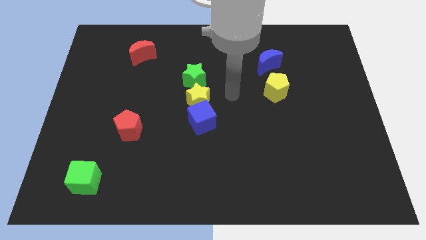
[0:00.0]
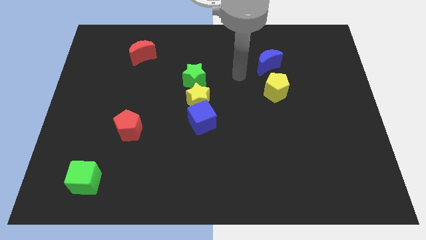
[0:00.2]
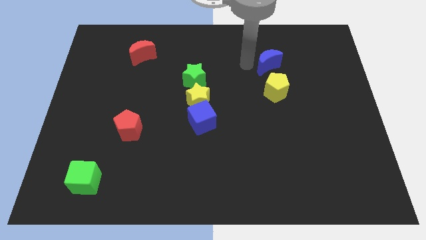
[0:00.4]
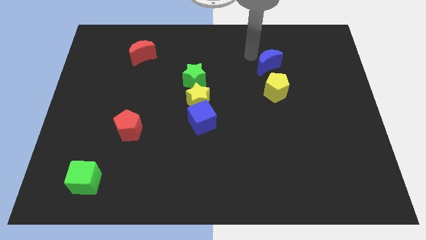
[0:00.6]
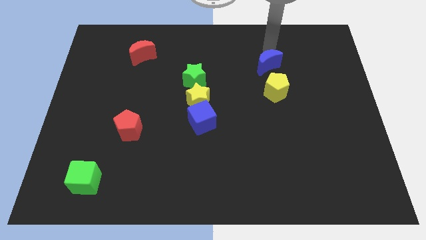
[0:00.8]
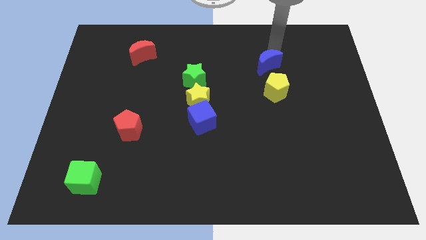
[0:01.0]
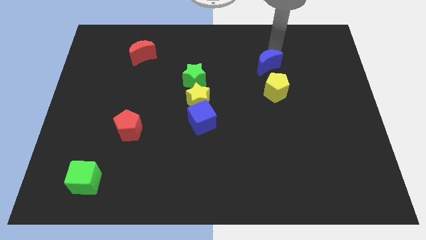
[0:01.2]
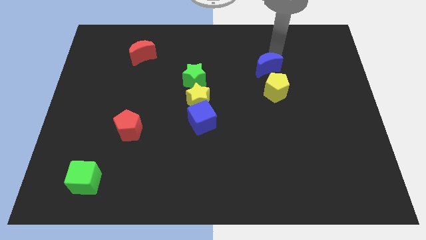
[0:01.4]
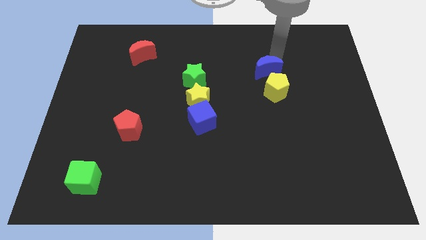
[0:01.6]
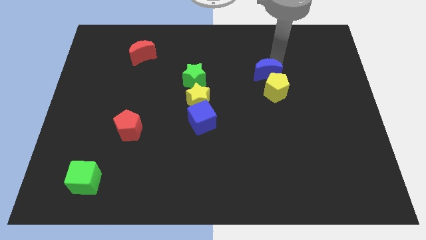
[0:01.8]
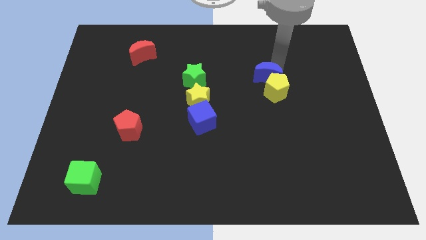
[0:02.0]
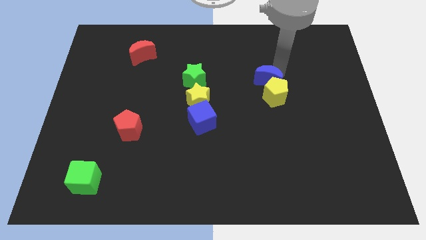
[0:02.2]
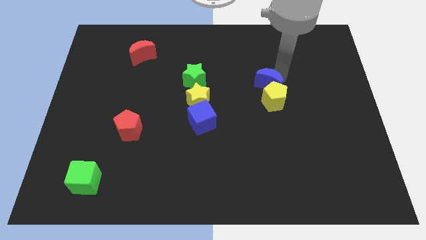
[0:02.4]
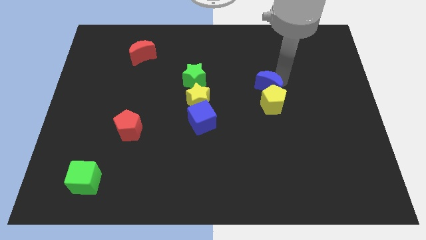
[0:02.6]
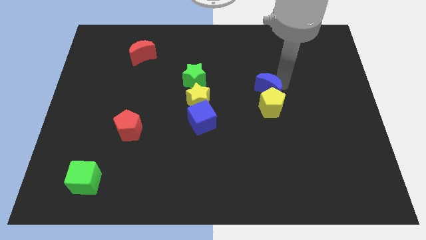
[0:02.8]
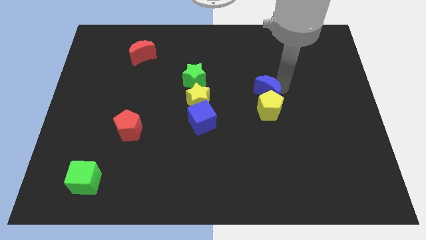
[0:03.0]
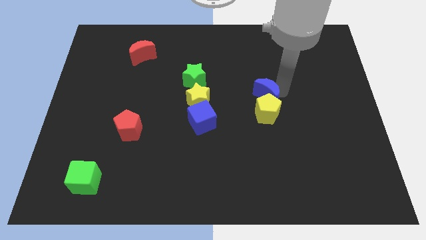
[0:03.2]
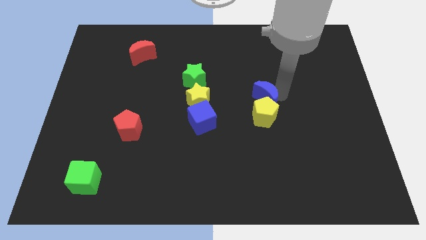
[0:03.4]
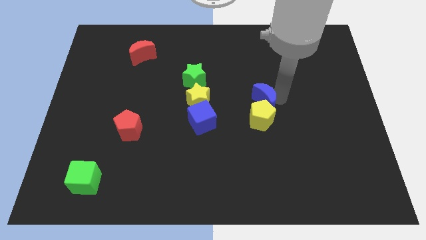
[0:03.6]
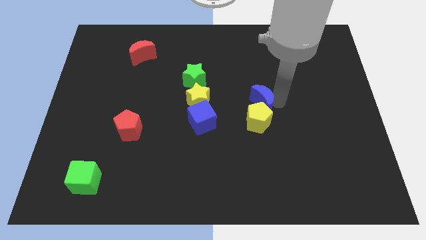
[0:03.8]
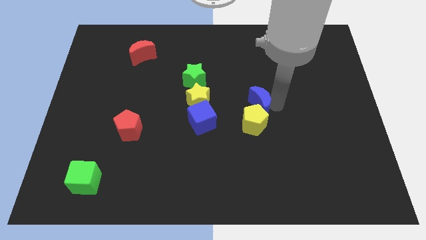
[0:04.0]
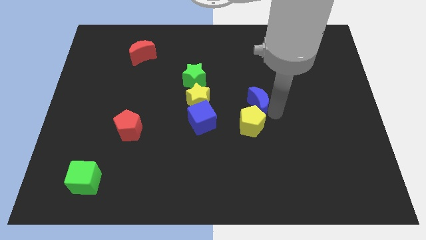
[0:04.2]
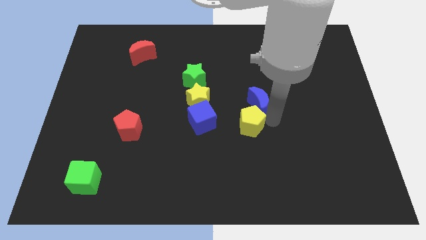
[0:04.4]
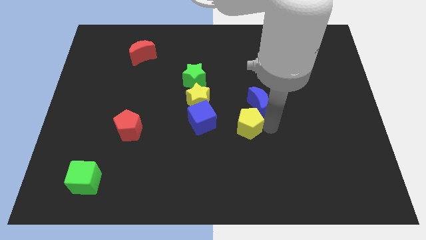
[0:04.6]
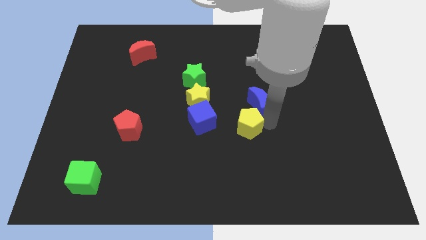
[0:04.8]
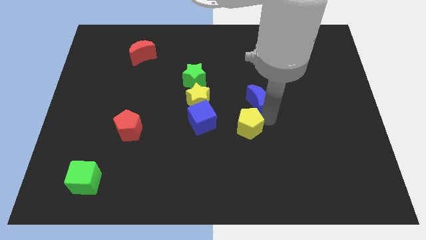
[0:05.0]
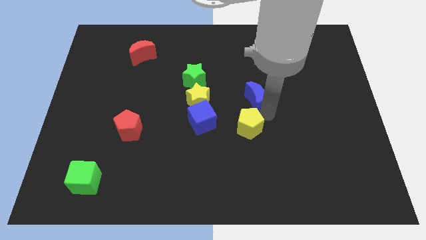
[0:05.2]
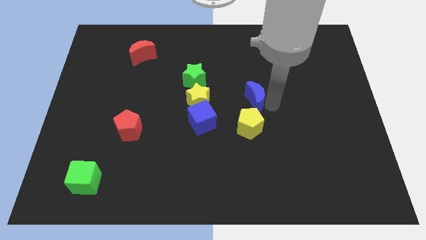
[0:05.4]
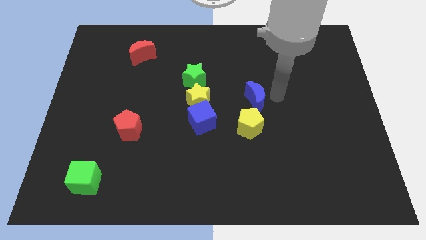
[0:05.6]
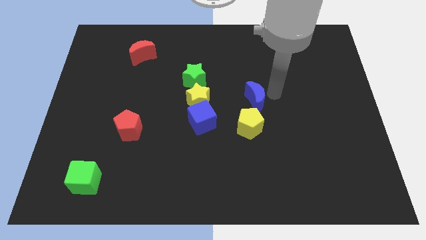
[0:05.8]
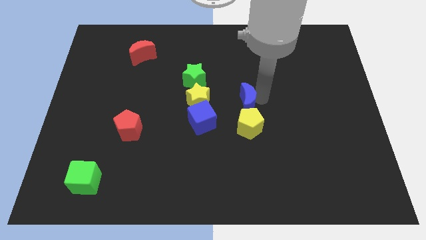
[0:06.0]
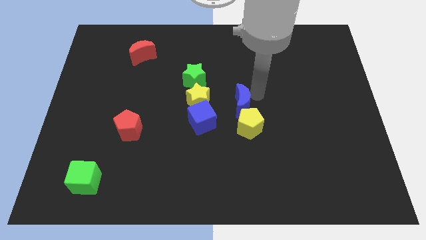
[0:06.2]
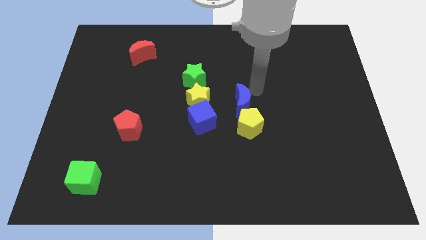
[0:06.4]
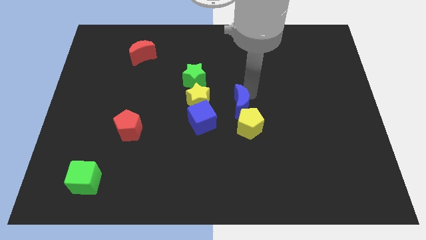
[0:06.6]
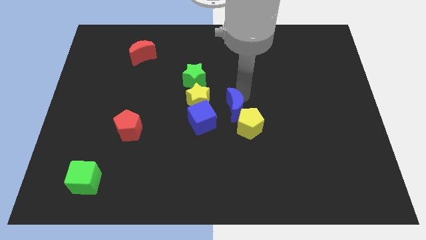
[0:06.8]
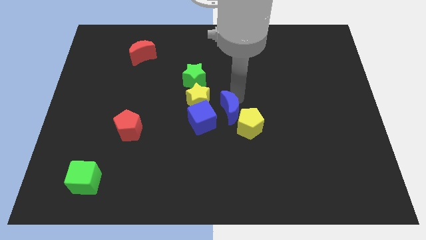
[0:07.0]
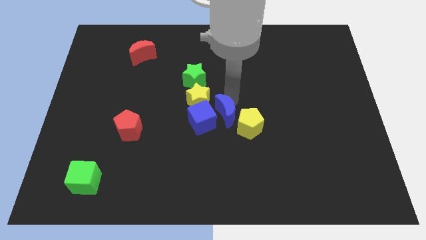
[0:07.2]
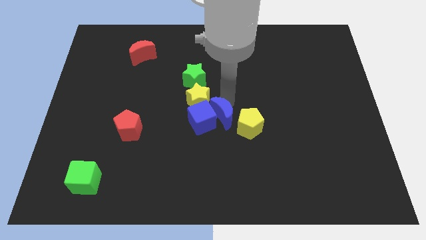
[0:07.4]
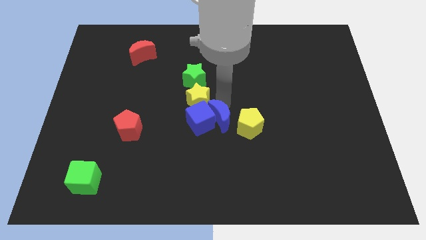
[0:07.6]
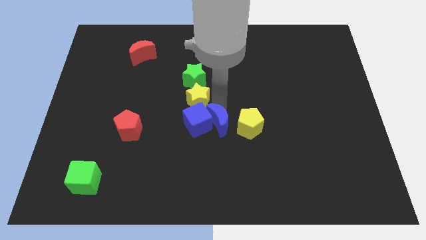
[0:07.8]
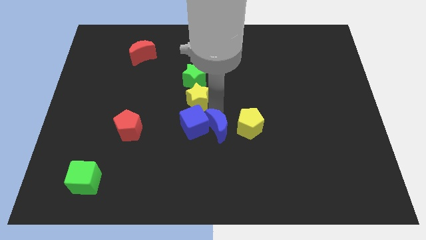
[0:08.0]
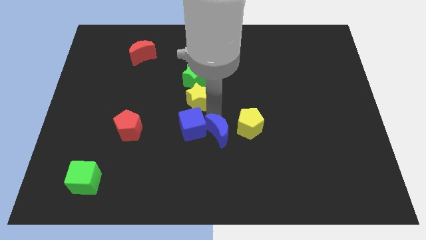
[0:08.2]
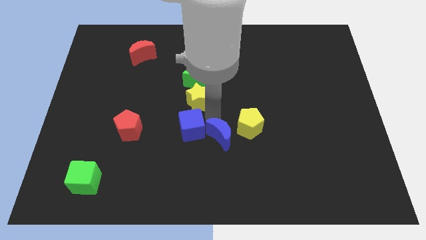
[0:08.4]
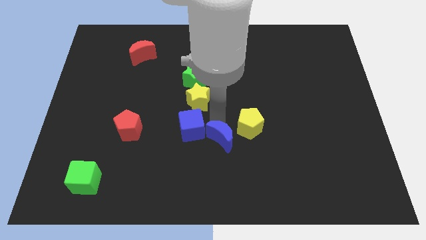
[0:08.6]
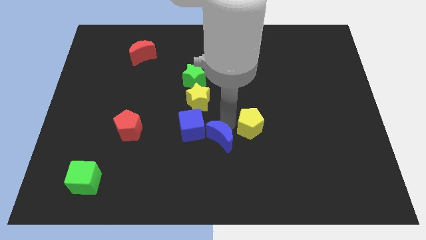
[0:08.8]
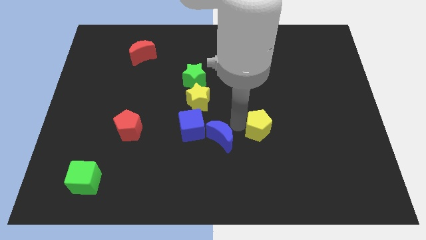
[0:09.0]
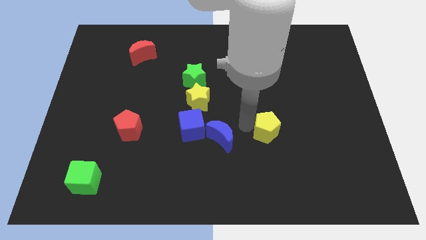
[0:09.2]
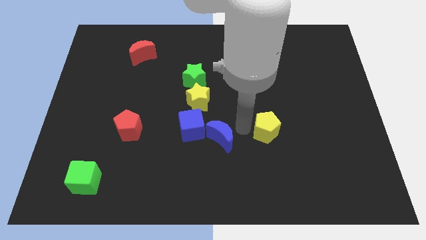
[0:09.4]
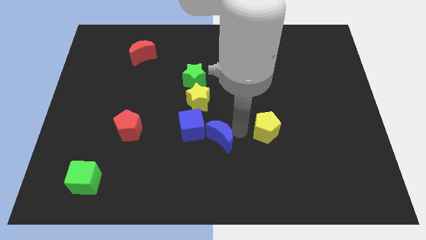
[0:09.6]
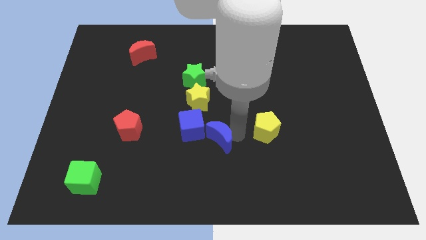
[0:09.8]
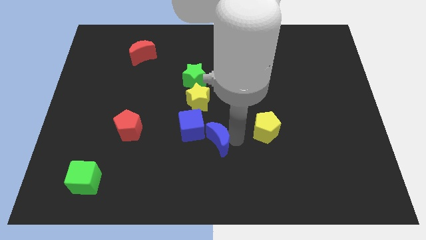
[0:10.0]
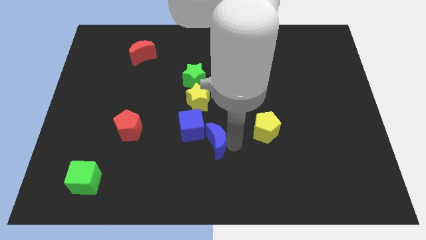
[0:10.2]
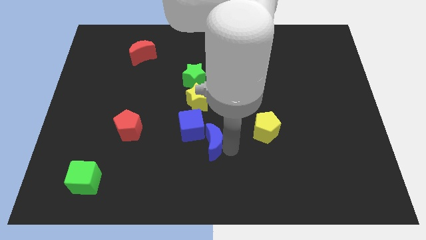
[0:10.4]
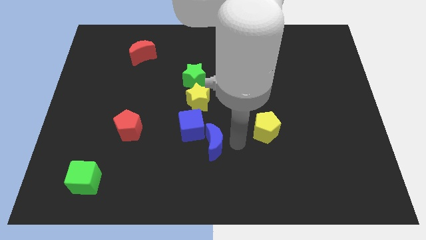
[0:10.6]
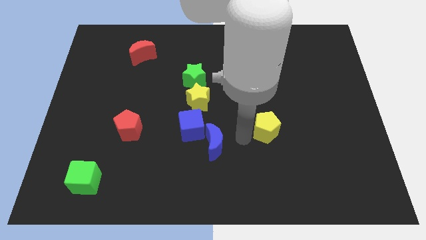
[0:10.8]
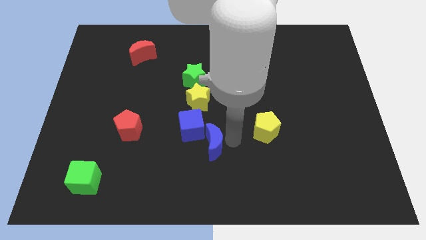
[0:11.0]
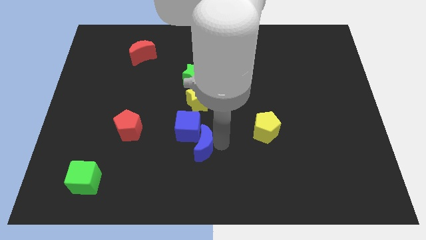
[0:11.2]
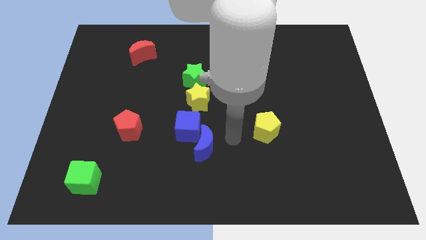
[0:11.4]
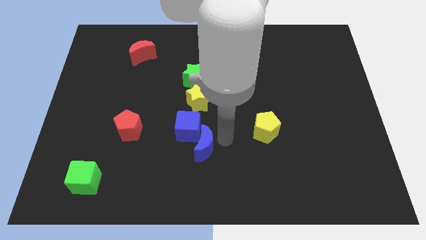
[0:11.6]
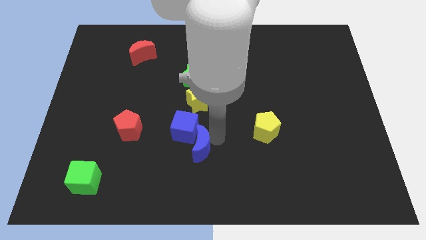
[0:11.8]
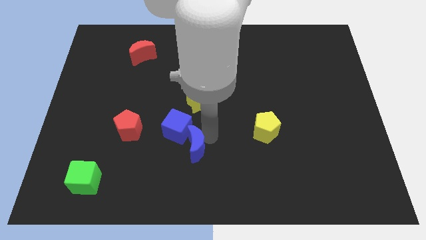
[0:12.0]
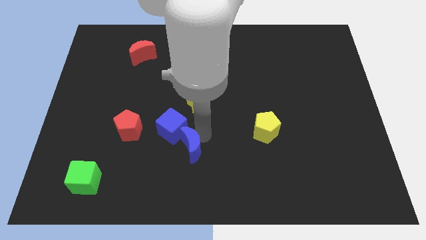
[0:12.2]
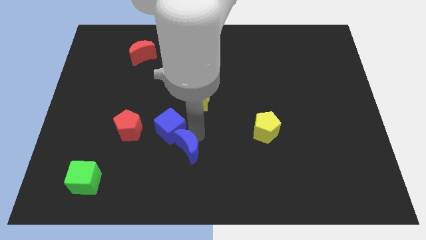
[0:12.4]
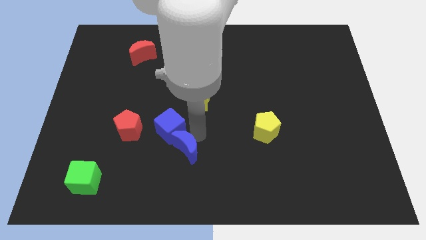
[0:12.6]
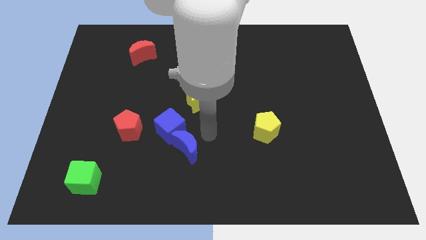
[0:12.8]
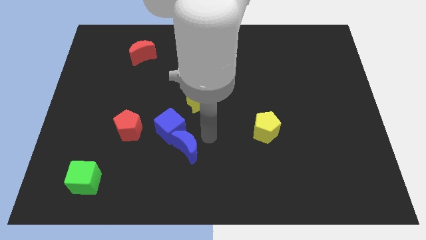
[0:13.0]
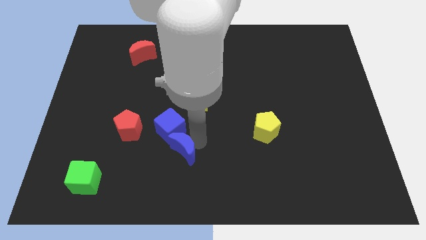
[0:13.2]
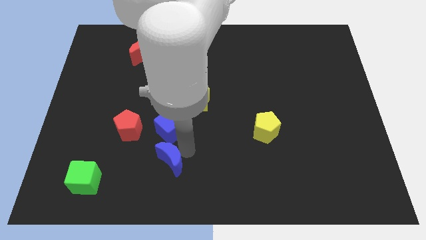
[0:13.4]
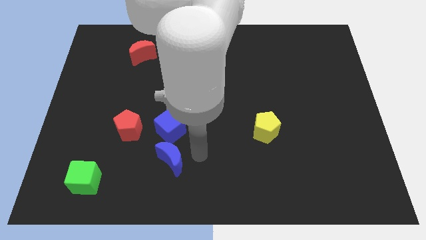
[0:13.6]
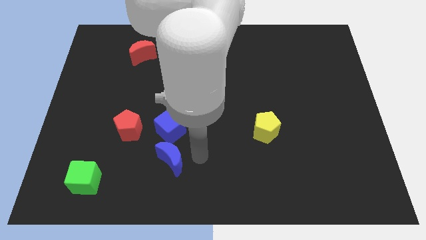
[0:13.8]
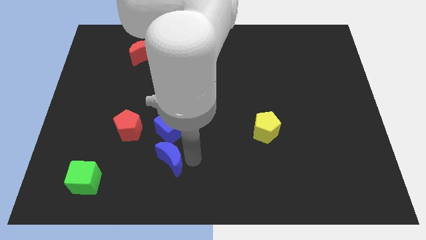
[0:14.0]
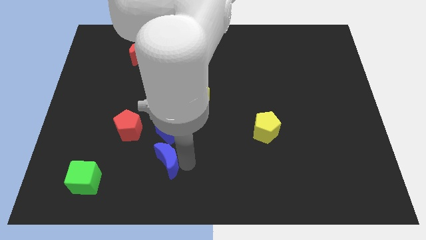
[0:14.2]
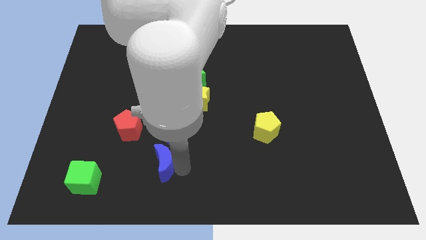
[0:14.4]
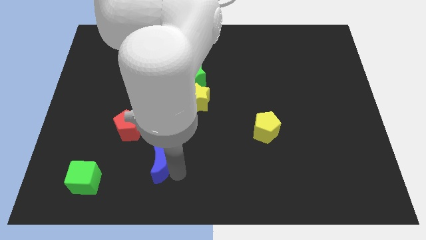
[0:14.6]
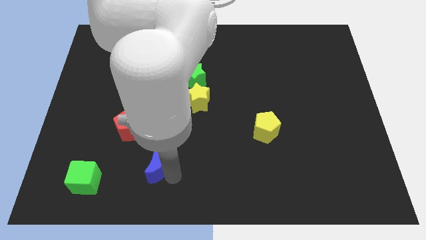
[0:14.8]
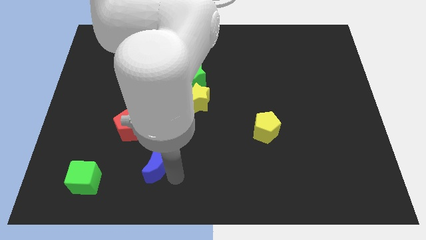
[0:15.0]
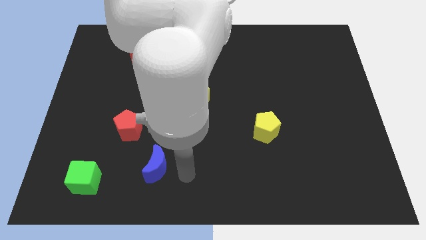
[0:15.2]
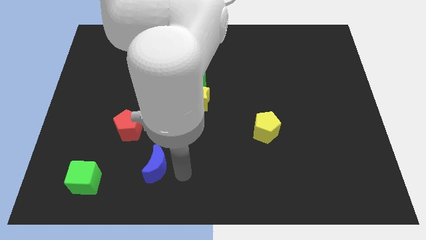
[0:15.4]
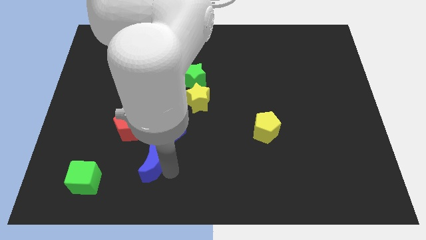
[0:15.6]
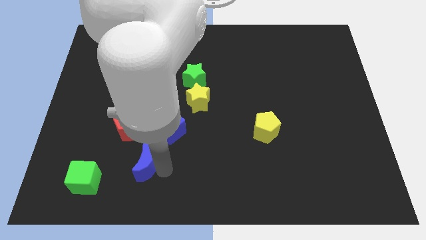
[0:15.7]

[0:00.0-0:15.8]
push the blue moon below the red pentagon
